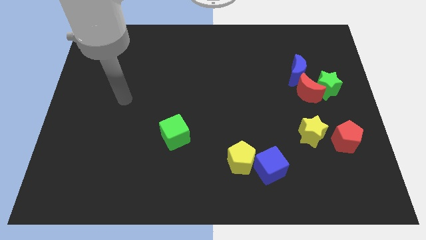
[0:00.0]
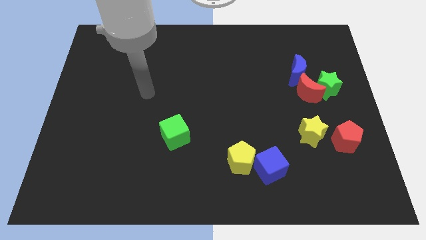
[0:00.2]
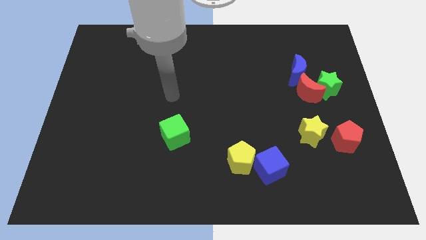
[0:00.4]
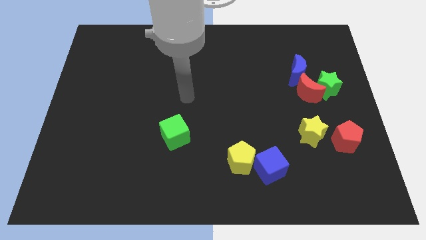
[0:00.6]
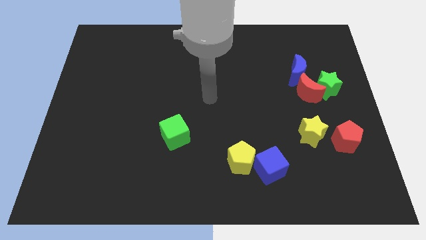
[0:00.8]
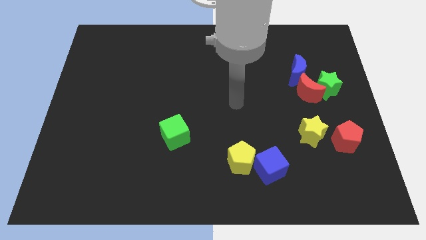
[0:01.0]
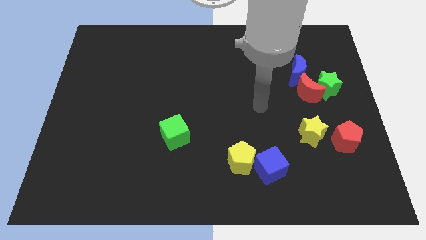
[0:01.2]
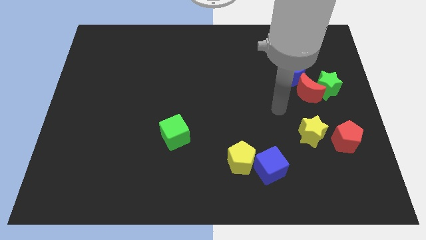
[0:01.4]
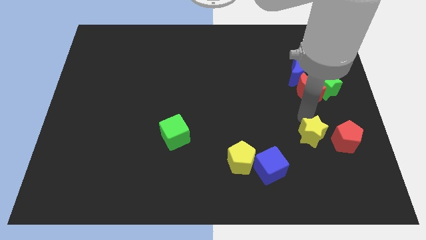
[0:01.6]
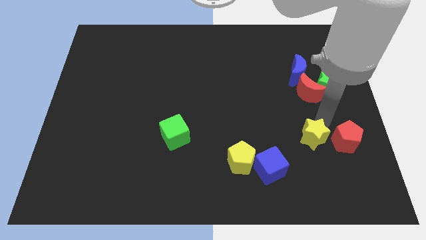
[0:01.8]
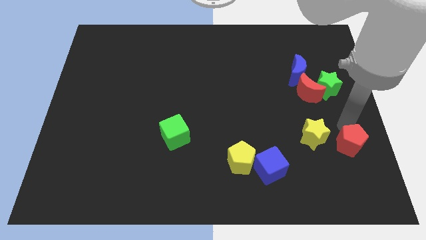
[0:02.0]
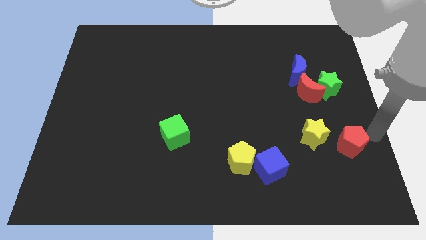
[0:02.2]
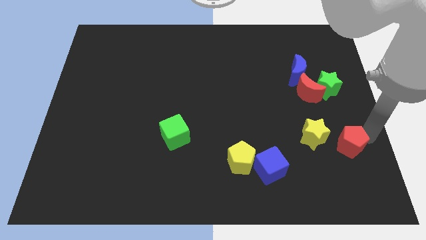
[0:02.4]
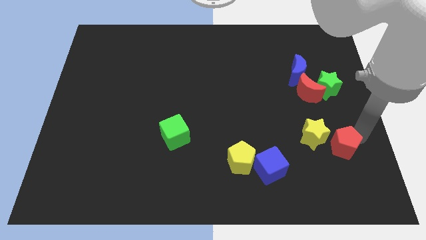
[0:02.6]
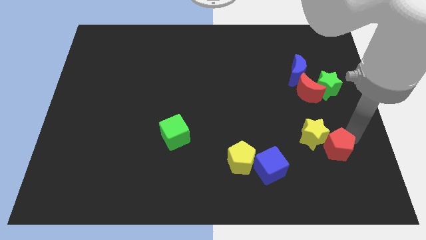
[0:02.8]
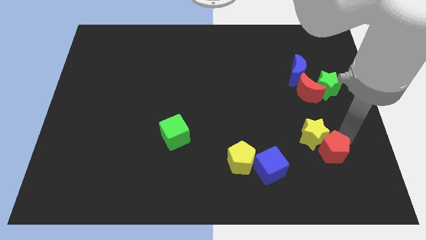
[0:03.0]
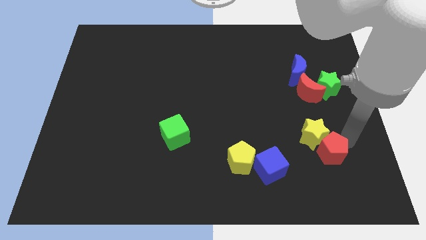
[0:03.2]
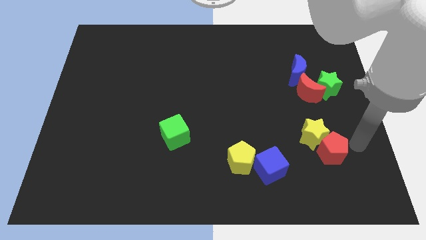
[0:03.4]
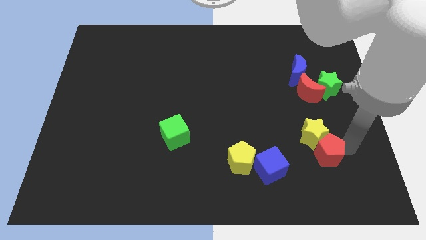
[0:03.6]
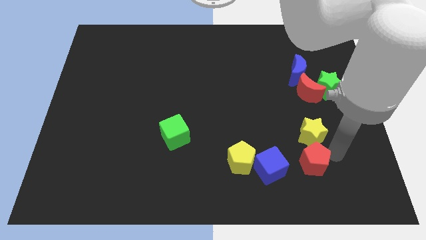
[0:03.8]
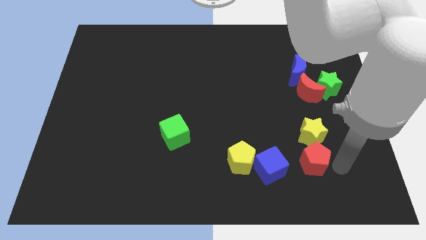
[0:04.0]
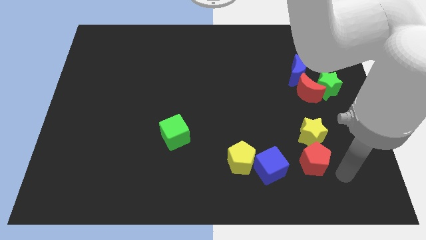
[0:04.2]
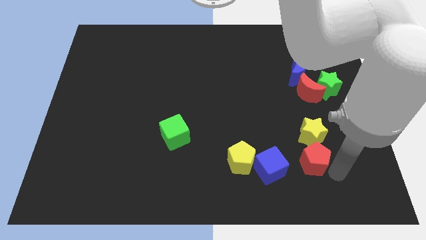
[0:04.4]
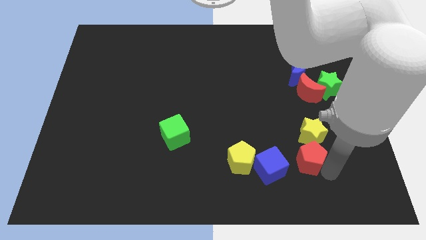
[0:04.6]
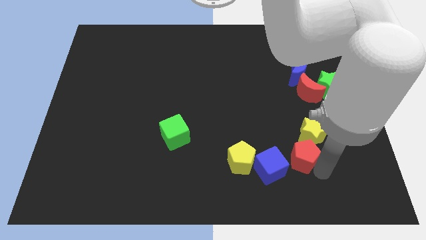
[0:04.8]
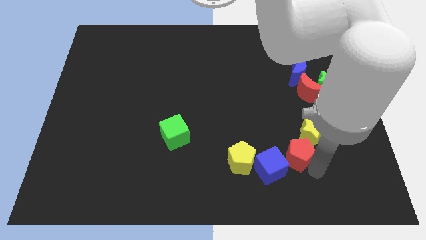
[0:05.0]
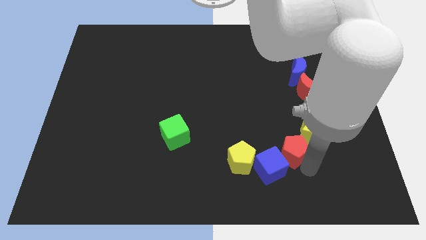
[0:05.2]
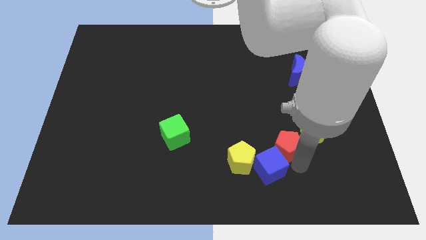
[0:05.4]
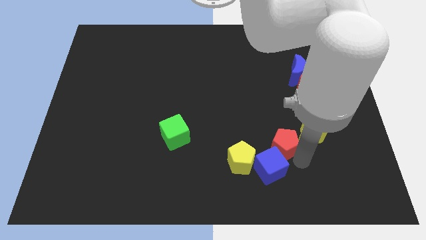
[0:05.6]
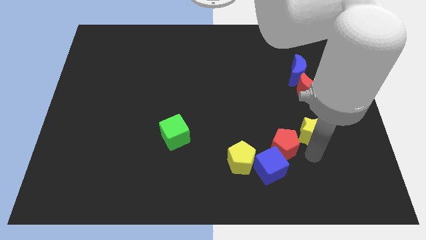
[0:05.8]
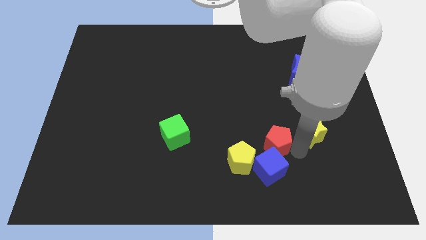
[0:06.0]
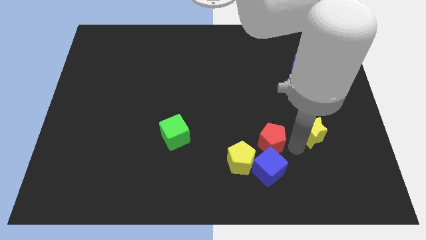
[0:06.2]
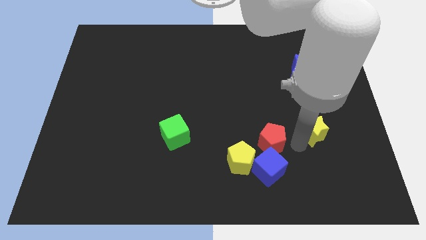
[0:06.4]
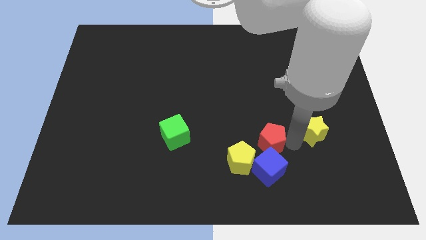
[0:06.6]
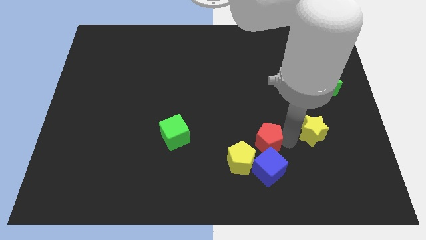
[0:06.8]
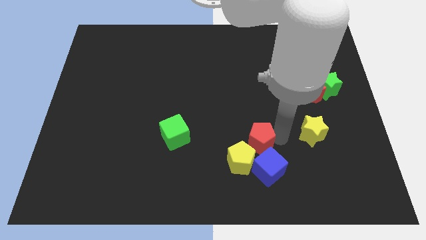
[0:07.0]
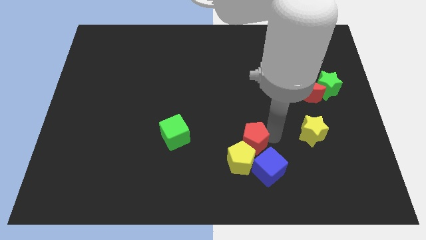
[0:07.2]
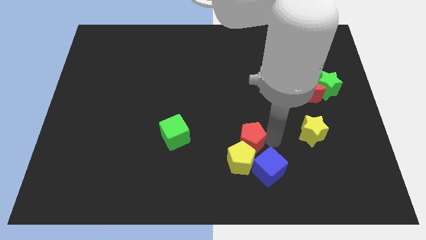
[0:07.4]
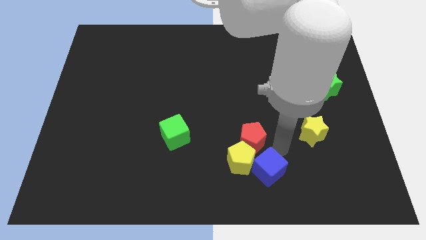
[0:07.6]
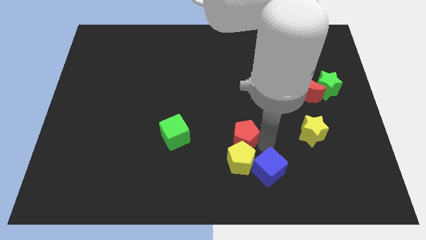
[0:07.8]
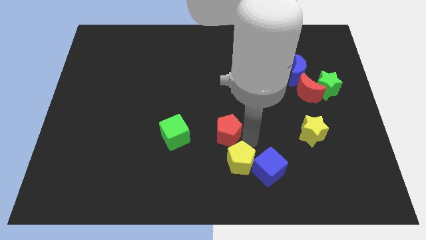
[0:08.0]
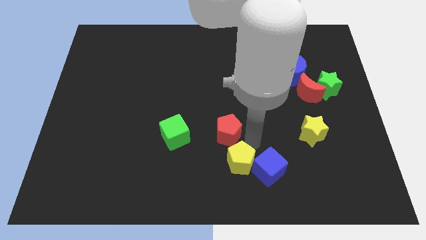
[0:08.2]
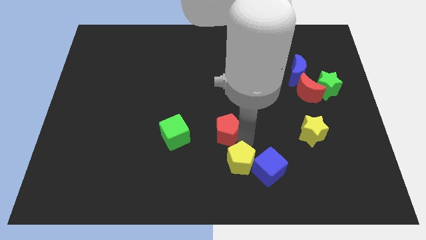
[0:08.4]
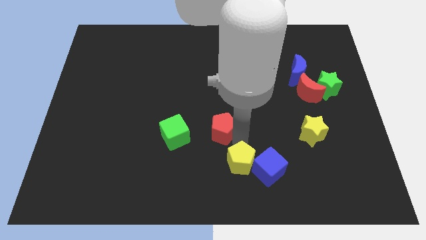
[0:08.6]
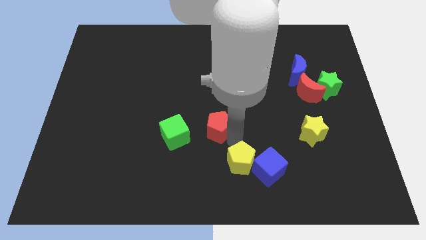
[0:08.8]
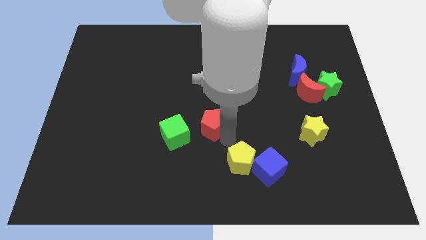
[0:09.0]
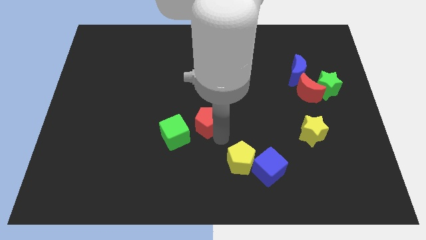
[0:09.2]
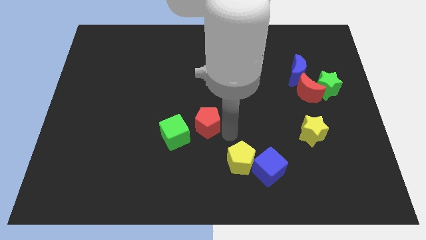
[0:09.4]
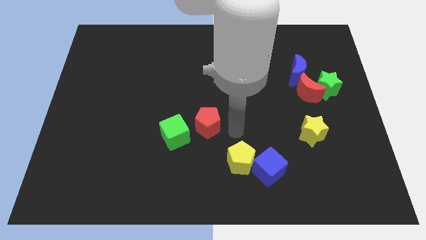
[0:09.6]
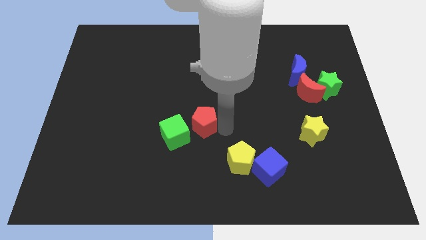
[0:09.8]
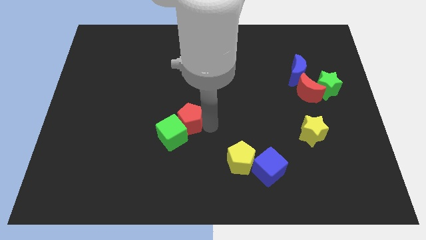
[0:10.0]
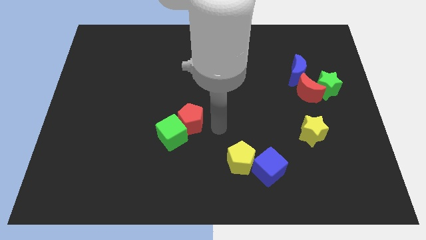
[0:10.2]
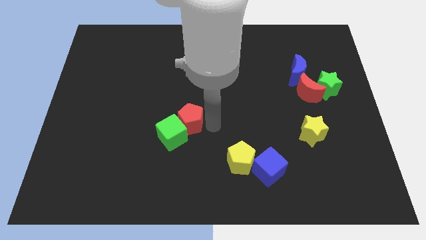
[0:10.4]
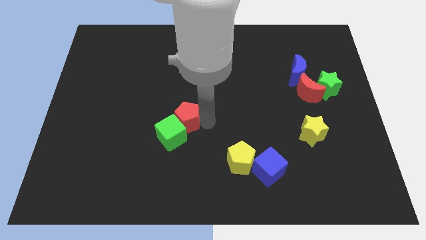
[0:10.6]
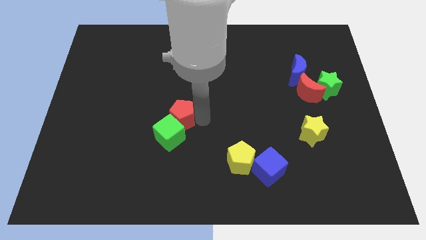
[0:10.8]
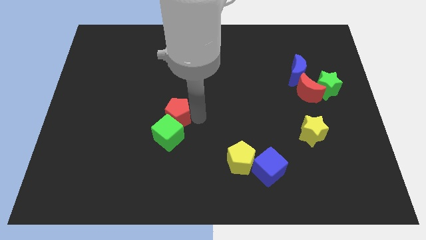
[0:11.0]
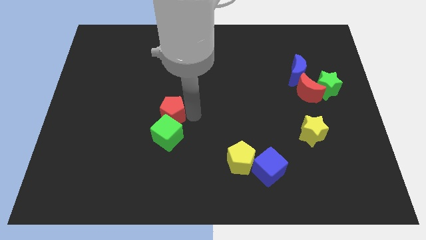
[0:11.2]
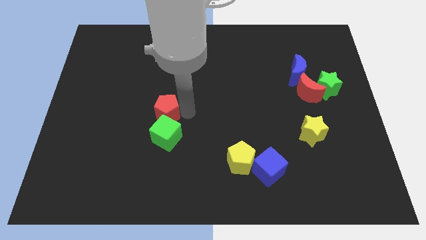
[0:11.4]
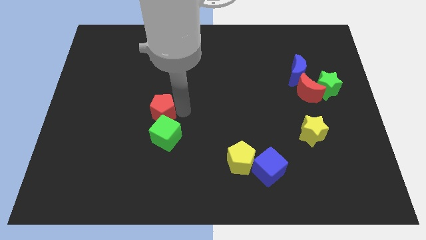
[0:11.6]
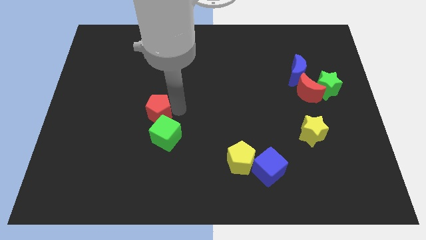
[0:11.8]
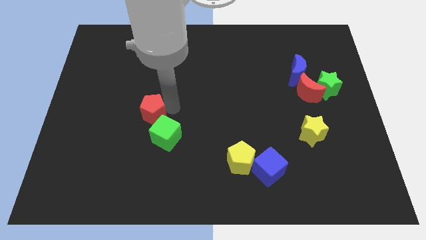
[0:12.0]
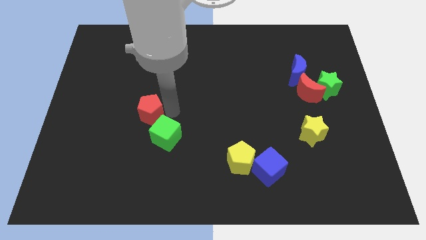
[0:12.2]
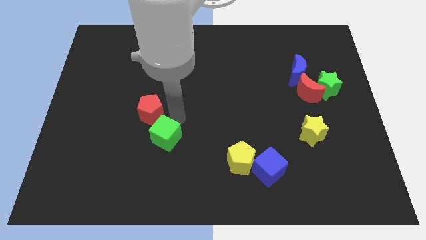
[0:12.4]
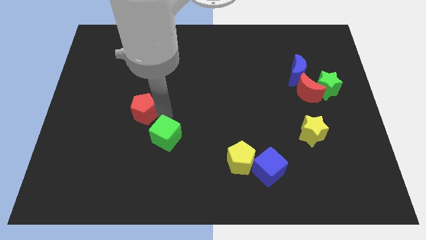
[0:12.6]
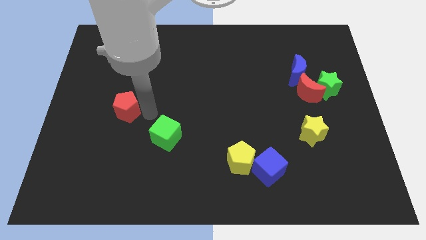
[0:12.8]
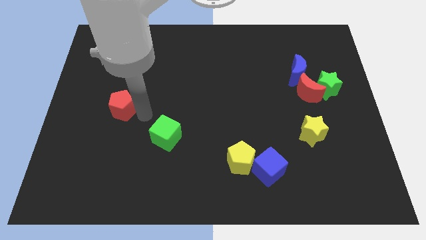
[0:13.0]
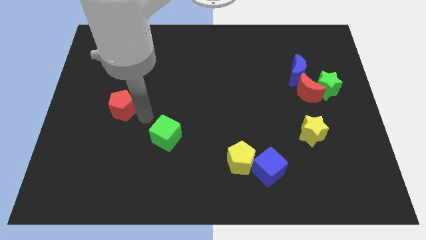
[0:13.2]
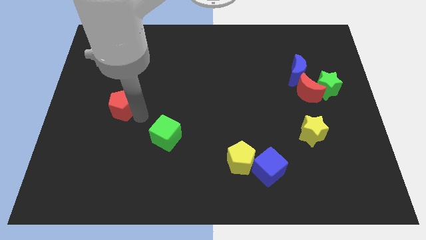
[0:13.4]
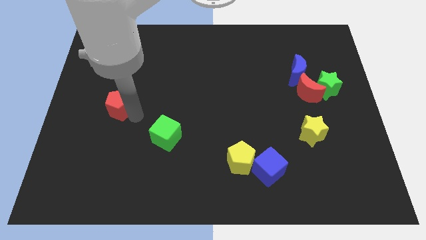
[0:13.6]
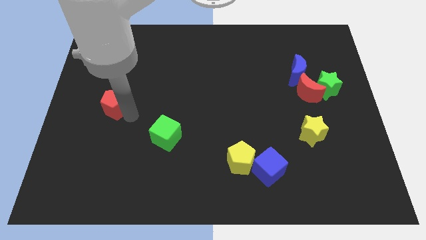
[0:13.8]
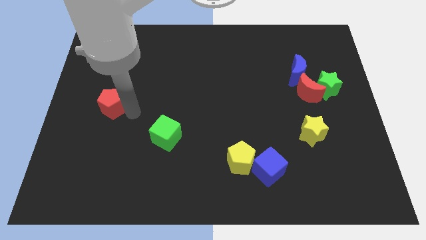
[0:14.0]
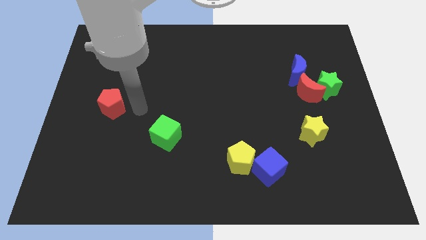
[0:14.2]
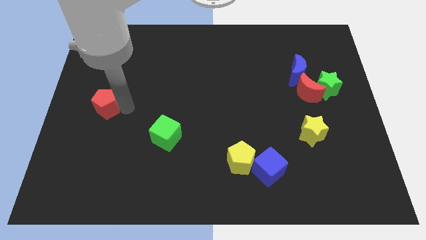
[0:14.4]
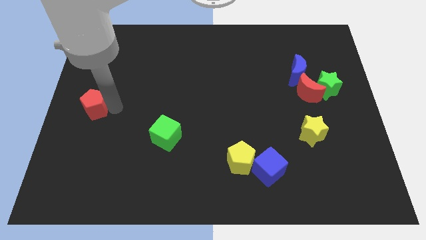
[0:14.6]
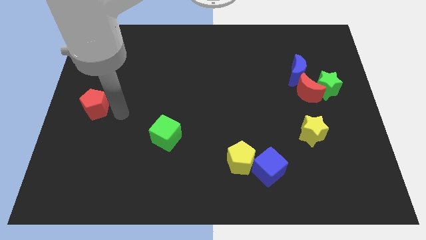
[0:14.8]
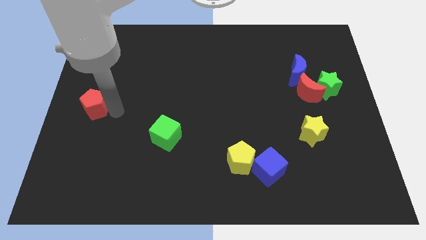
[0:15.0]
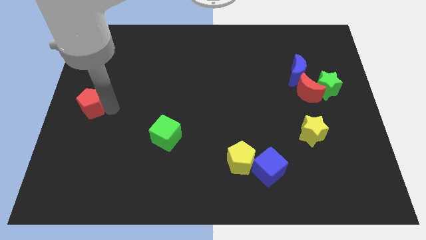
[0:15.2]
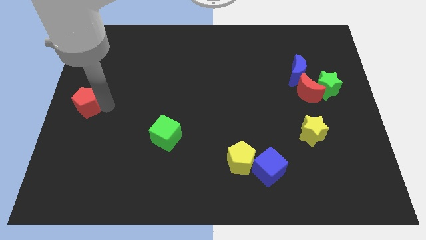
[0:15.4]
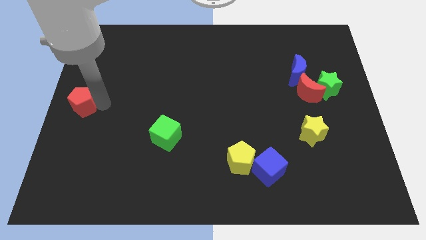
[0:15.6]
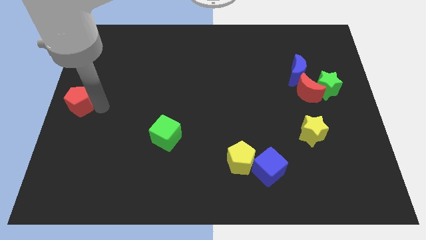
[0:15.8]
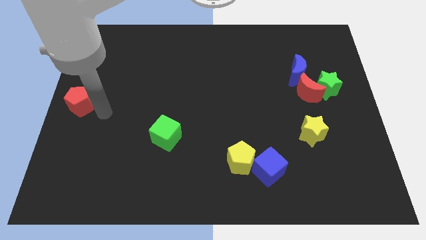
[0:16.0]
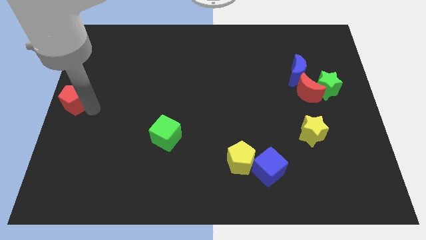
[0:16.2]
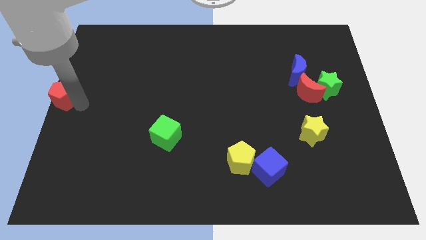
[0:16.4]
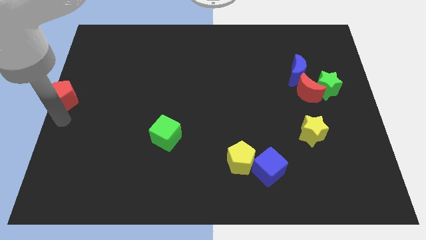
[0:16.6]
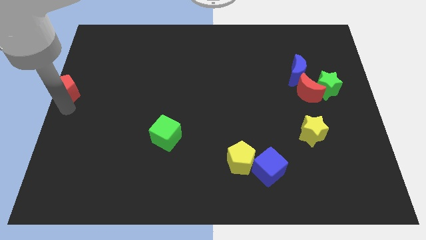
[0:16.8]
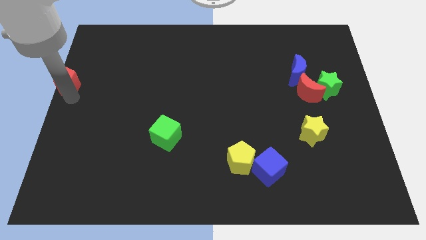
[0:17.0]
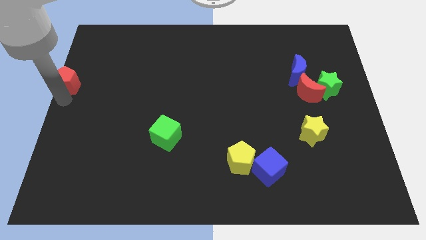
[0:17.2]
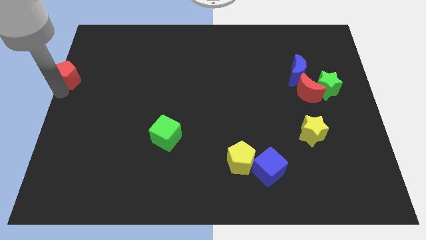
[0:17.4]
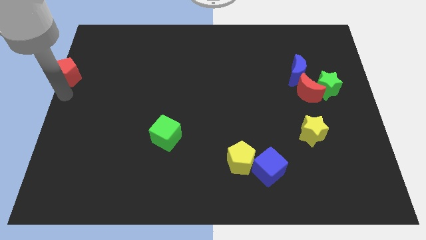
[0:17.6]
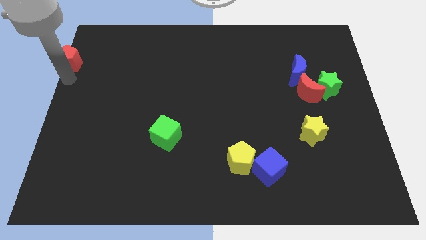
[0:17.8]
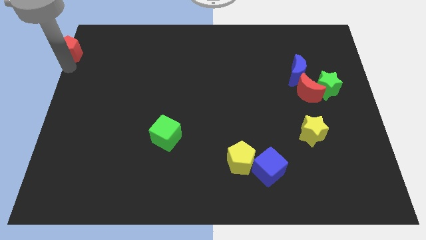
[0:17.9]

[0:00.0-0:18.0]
push the red pentagon to the top left corner
